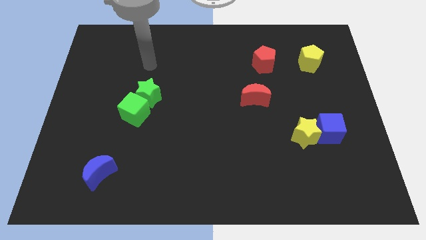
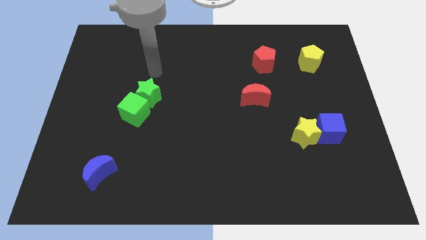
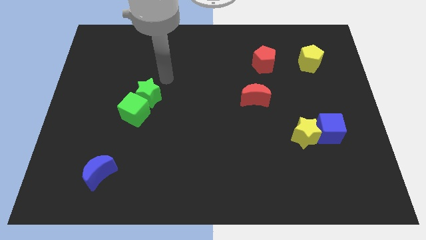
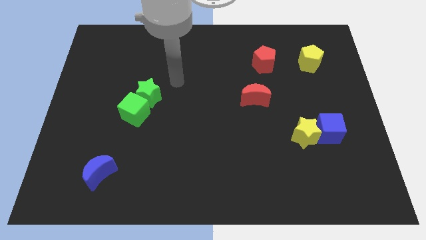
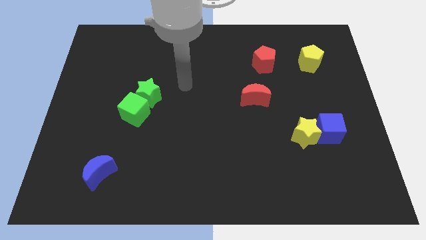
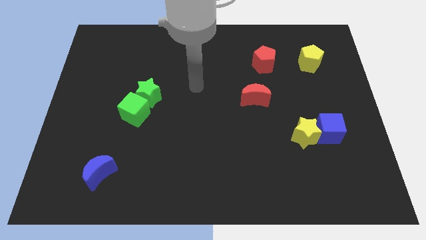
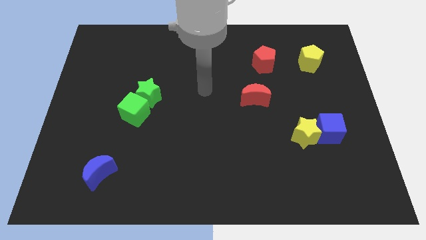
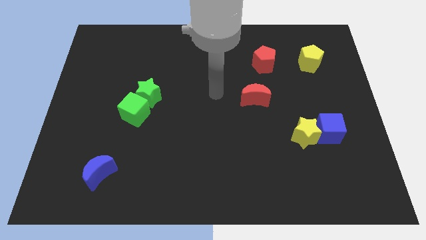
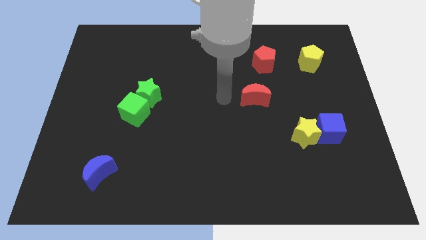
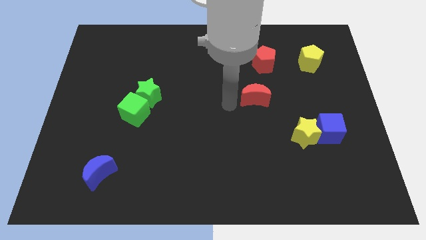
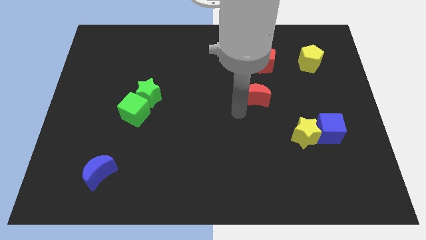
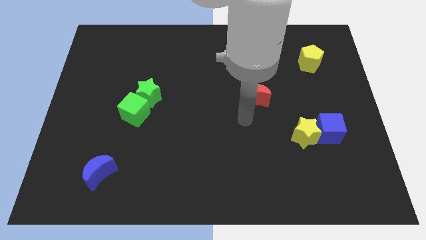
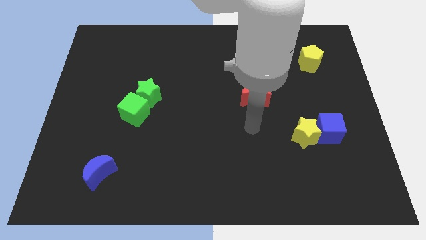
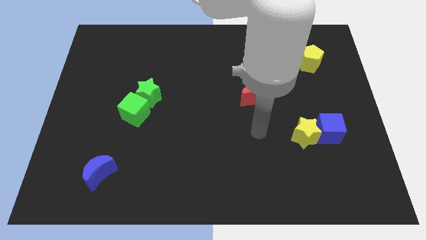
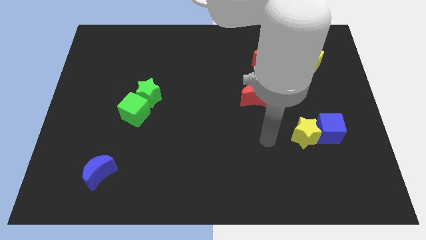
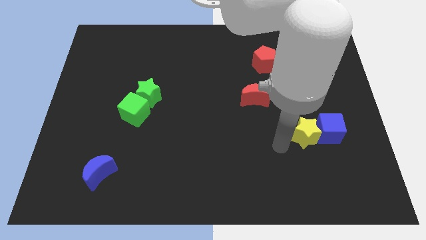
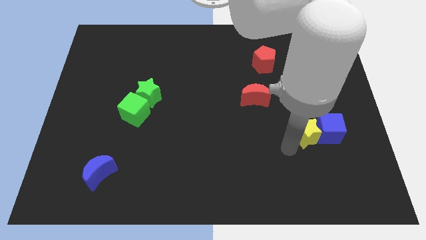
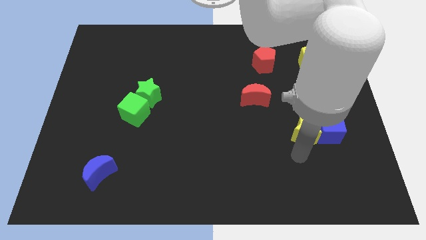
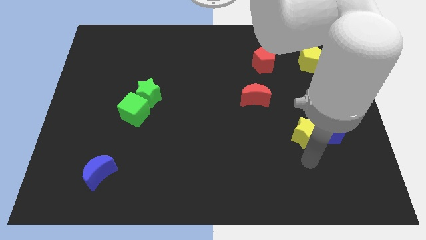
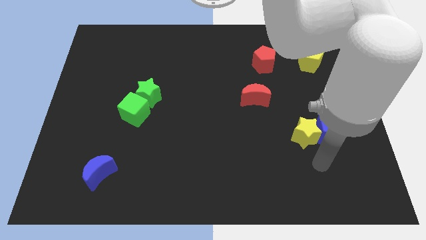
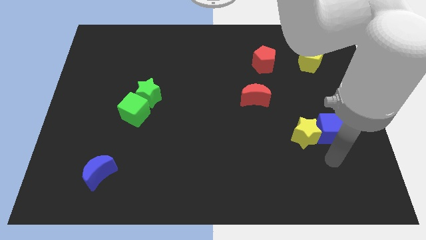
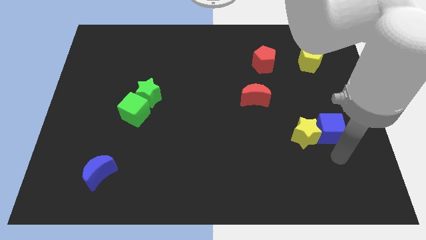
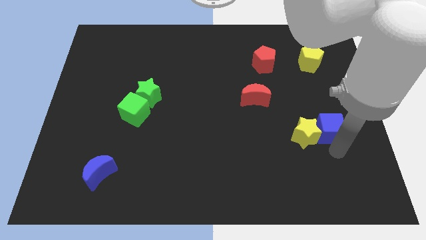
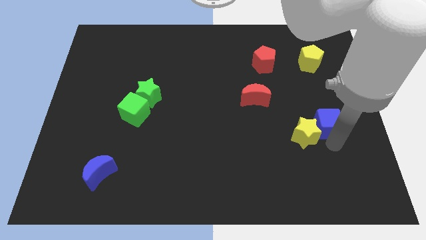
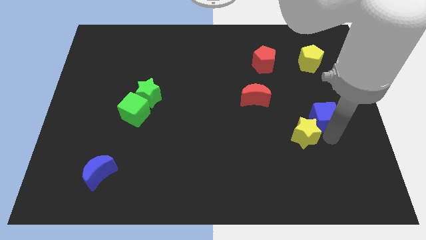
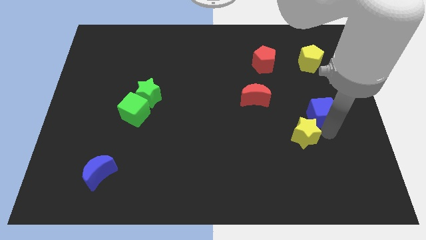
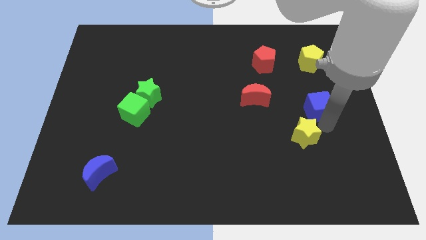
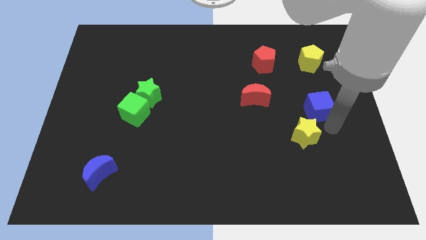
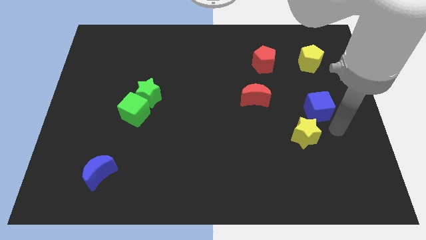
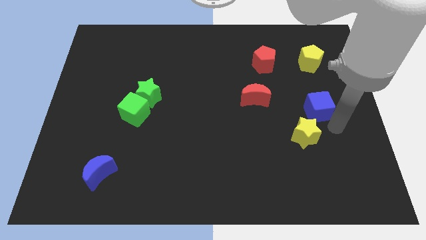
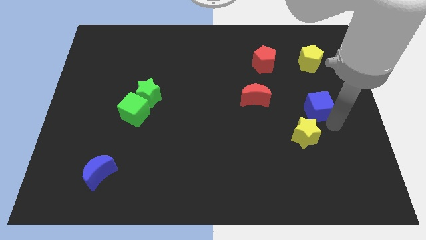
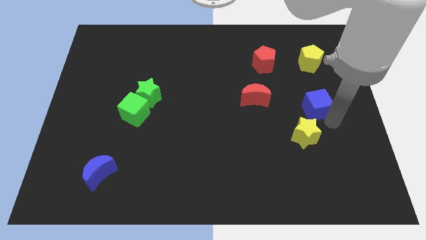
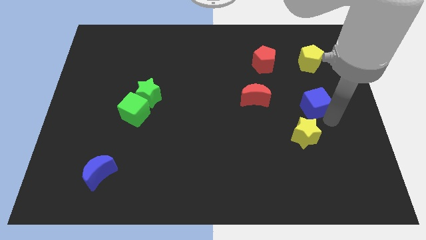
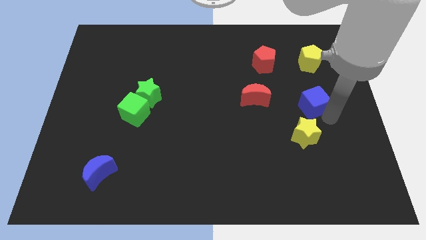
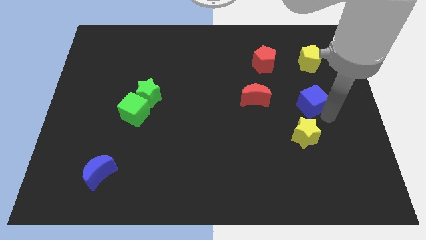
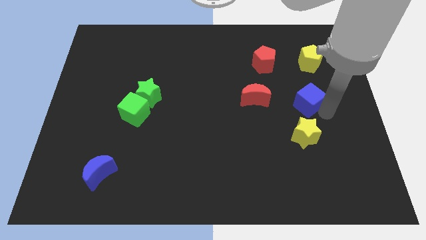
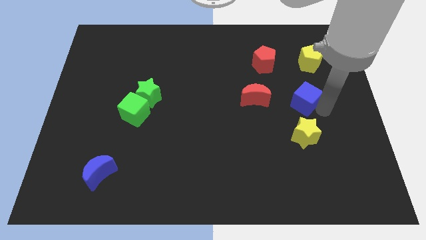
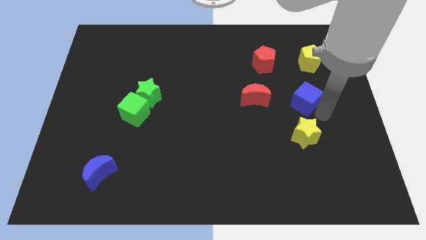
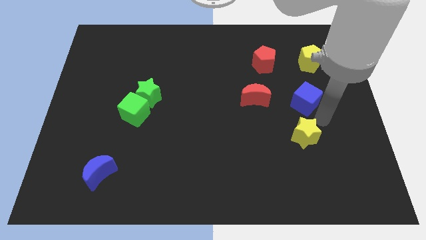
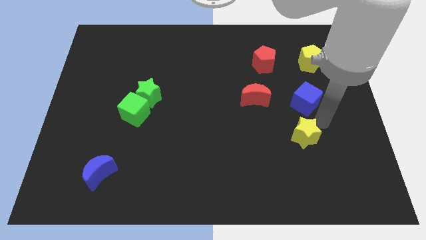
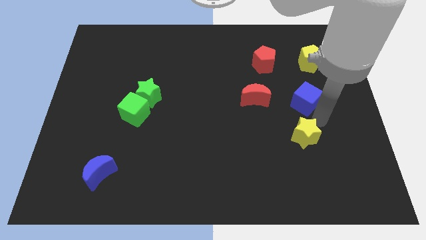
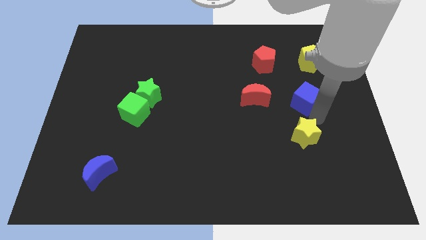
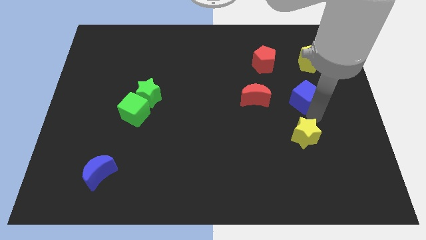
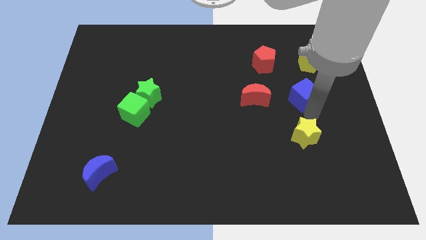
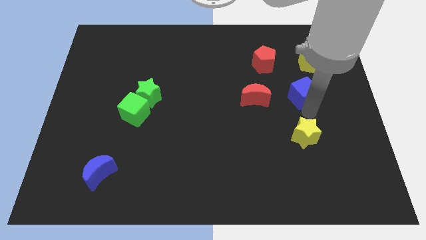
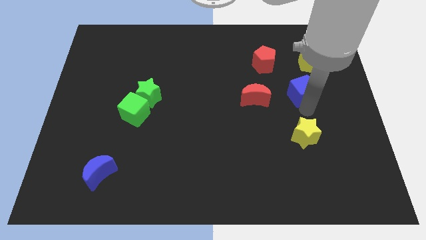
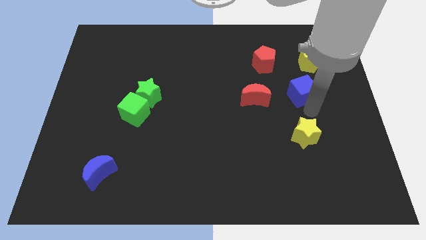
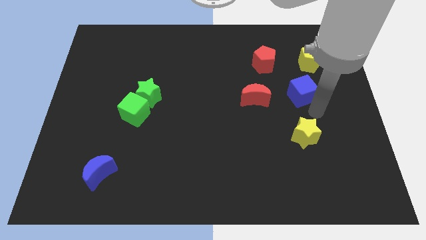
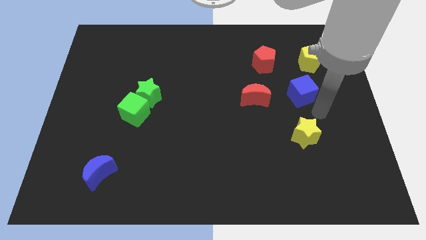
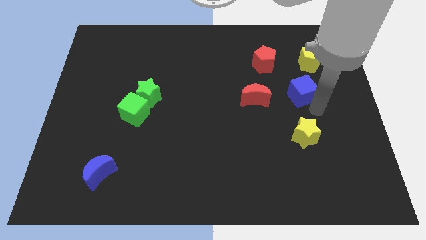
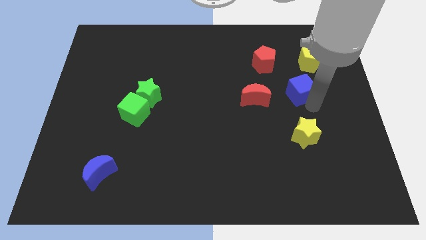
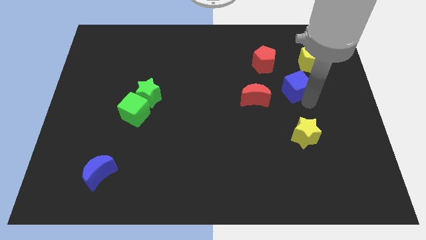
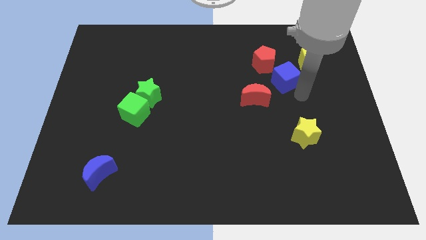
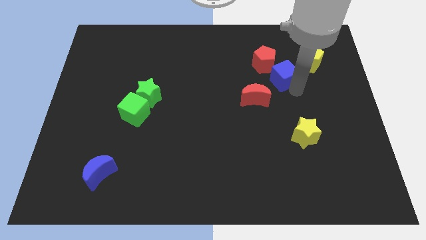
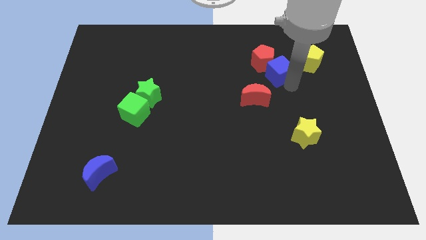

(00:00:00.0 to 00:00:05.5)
push the blue cube next to the red pentagon

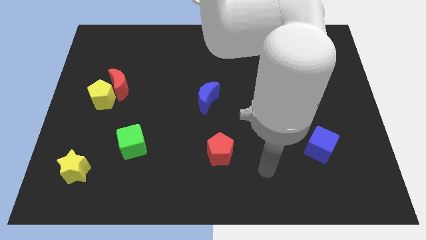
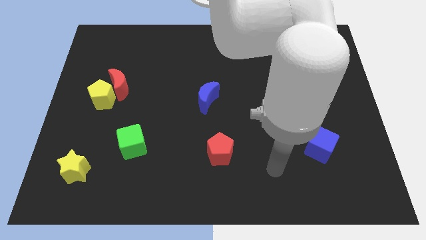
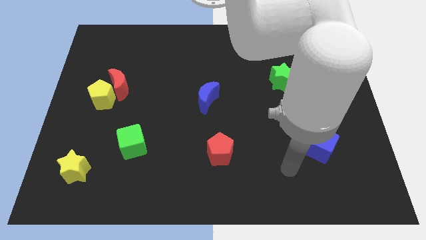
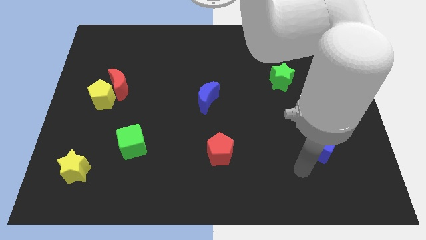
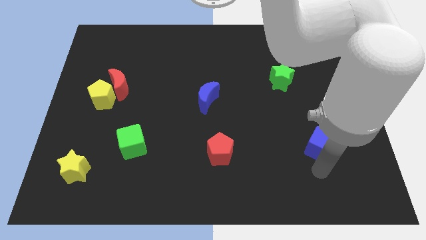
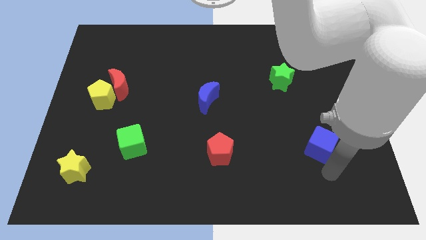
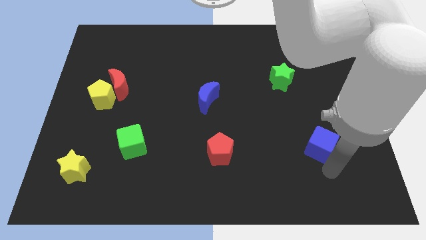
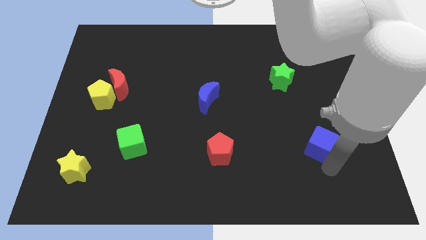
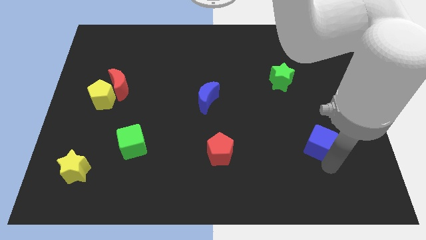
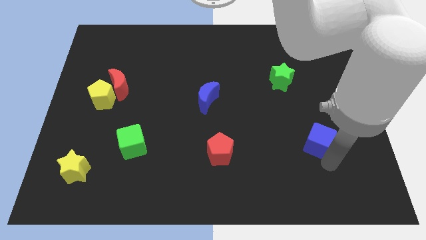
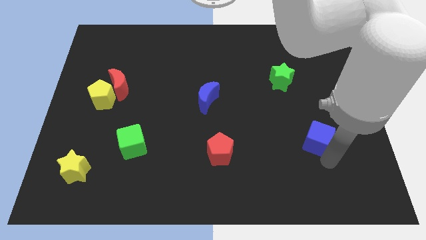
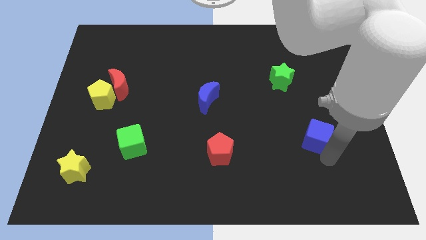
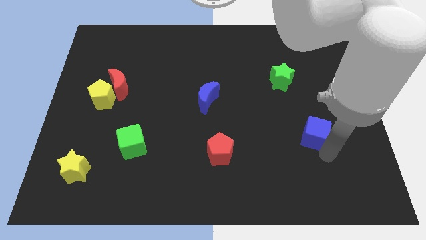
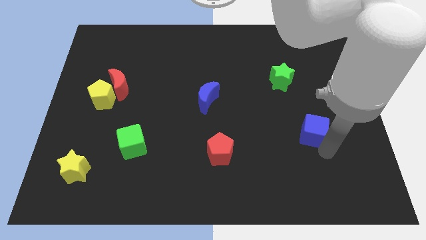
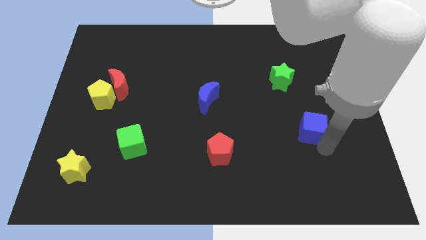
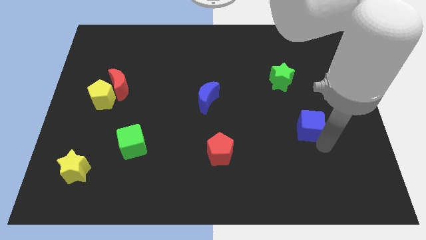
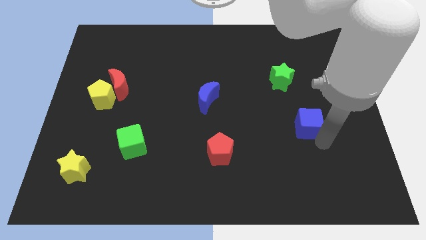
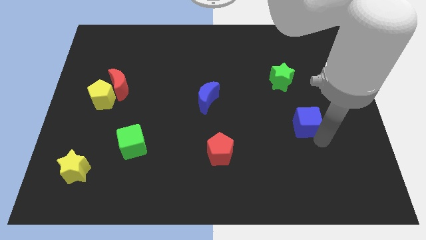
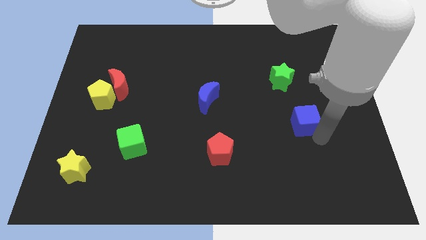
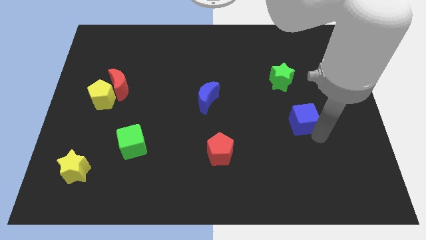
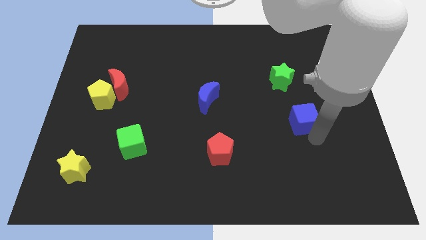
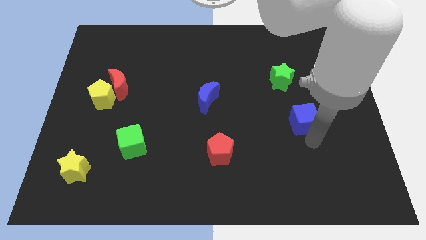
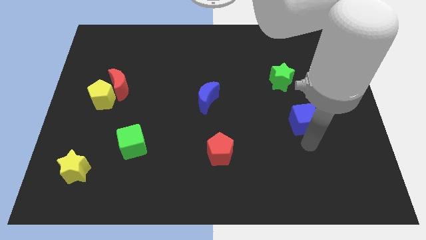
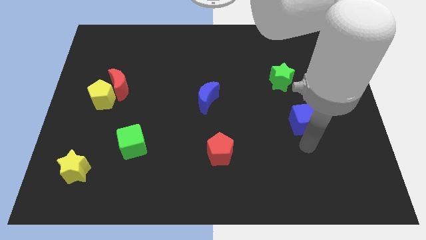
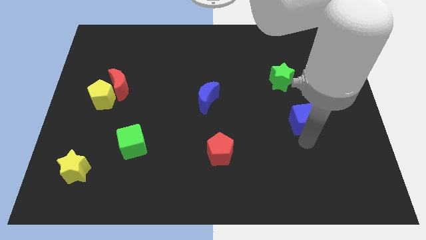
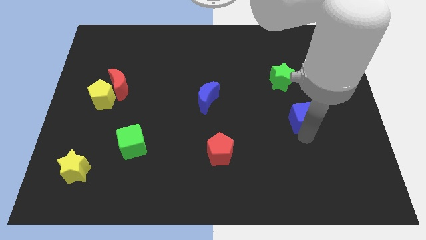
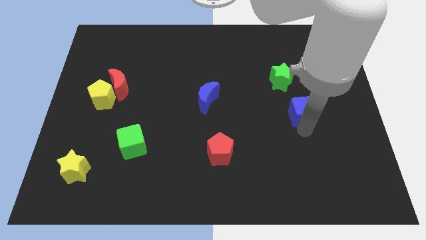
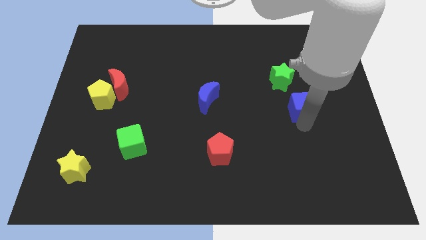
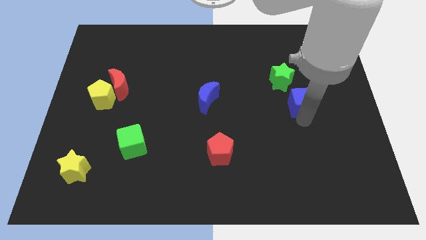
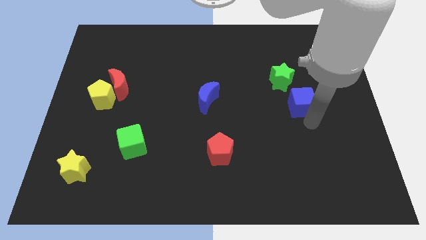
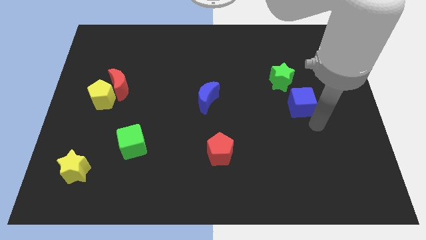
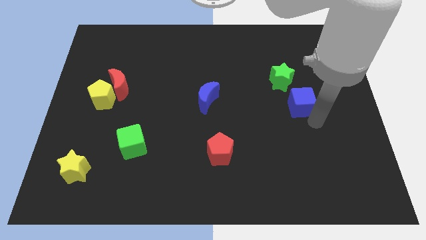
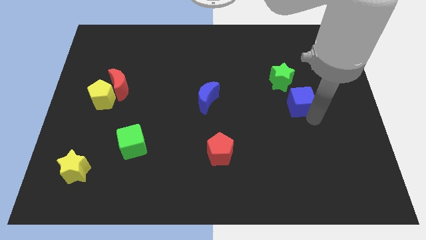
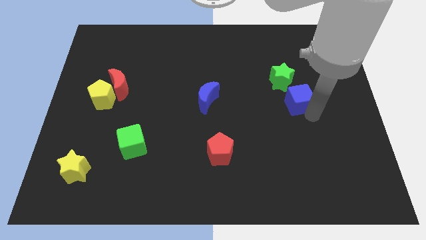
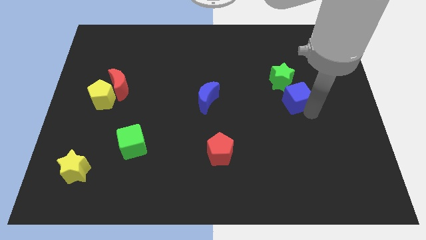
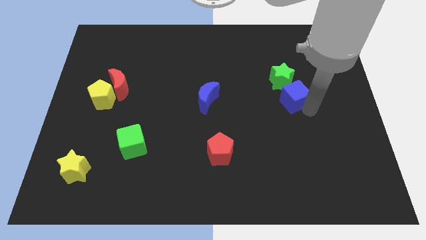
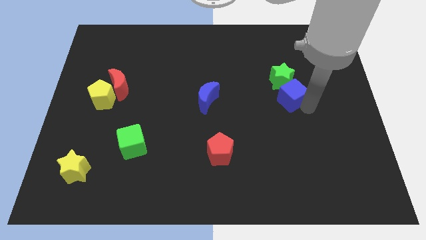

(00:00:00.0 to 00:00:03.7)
move the blue cube close to the green star
